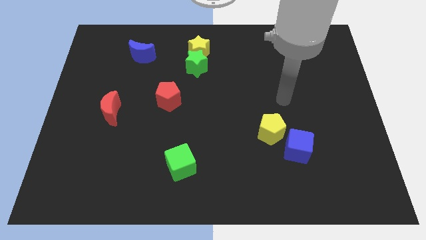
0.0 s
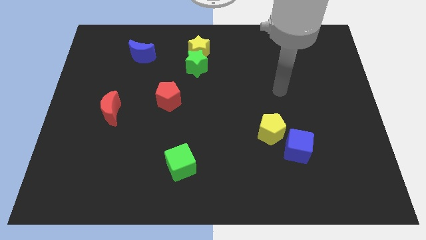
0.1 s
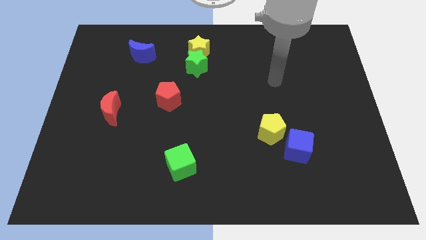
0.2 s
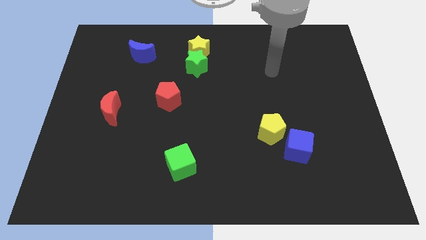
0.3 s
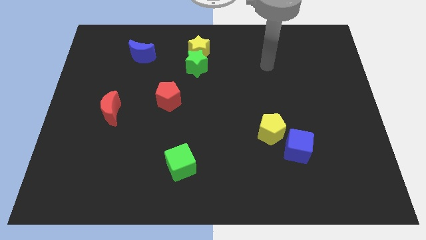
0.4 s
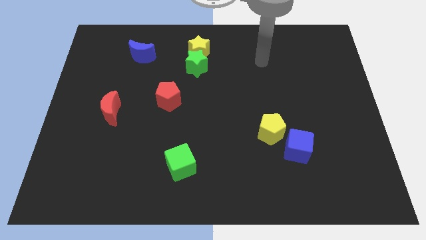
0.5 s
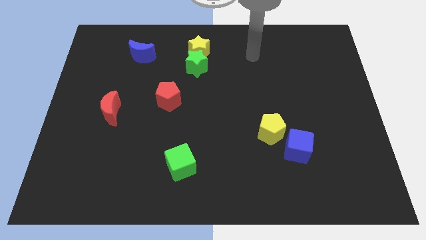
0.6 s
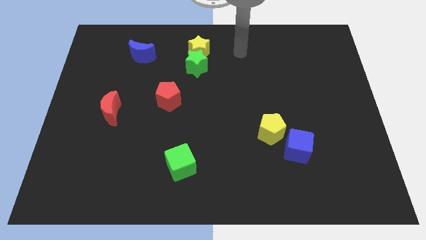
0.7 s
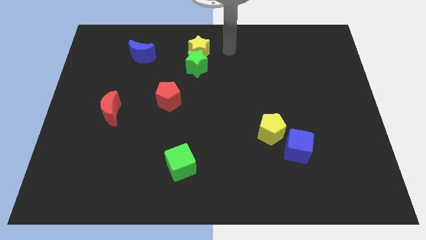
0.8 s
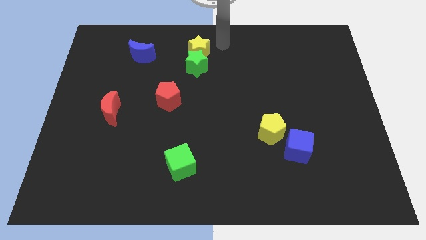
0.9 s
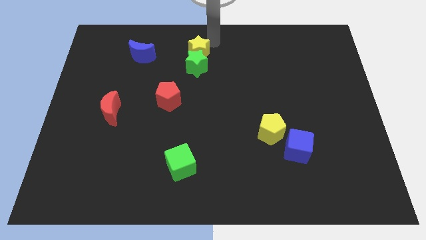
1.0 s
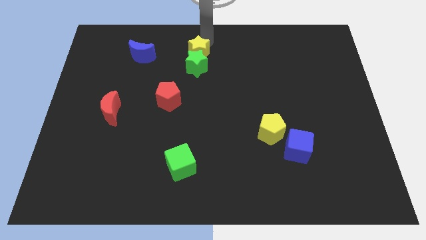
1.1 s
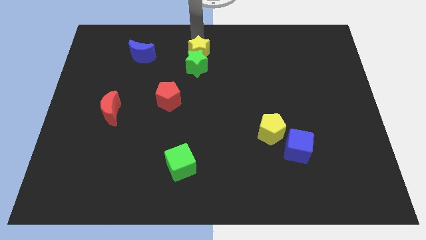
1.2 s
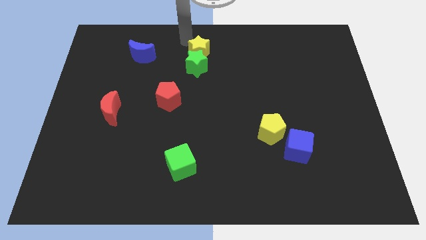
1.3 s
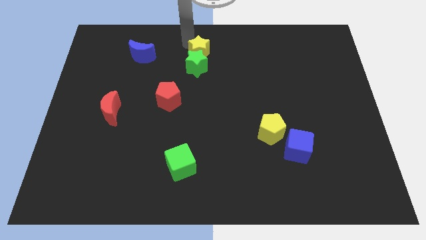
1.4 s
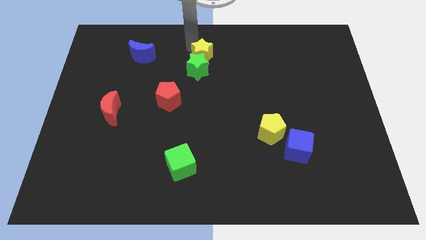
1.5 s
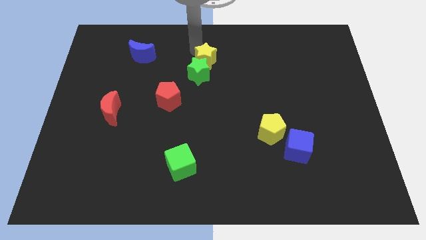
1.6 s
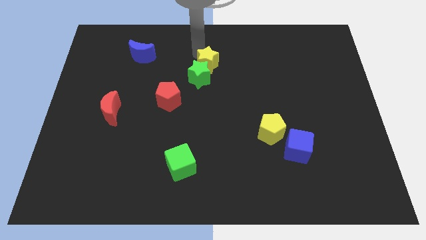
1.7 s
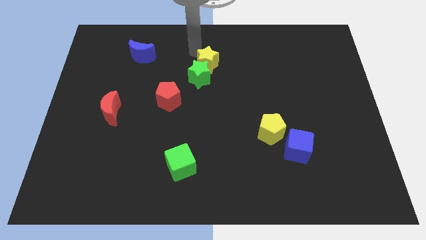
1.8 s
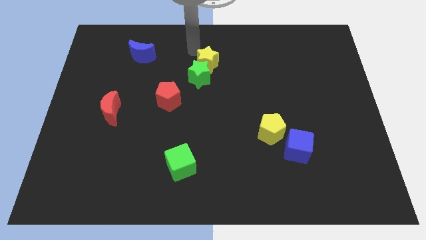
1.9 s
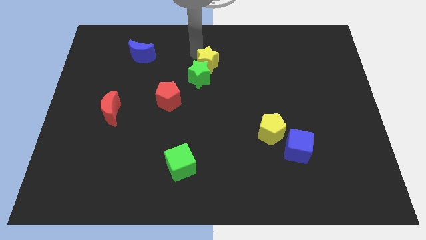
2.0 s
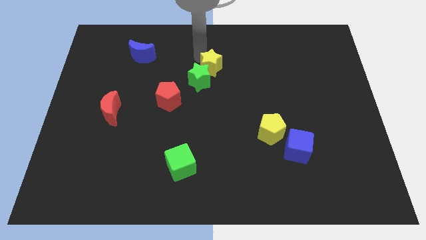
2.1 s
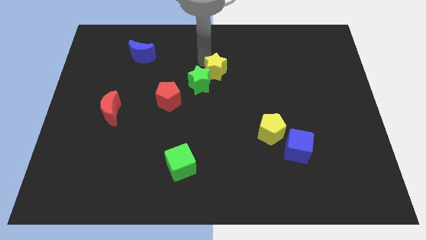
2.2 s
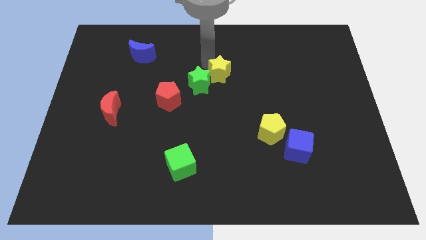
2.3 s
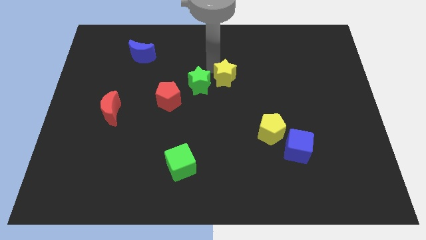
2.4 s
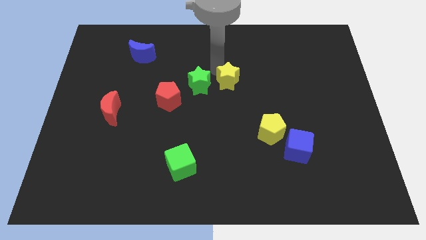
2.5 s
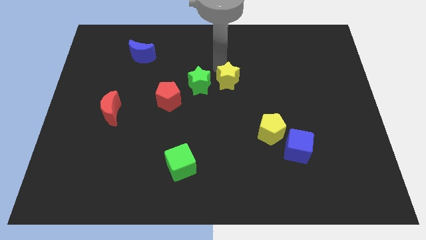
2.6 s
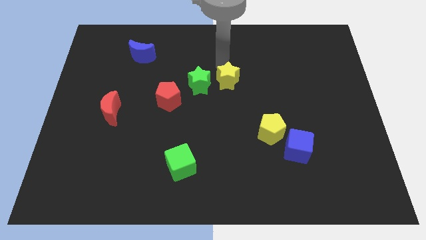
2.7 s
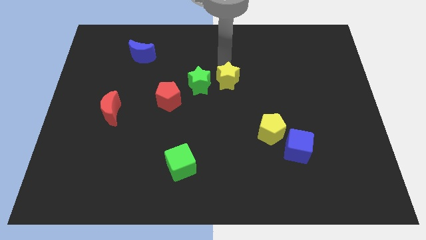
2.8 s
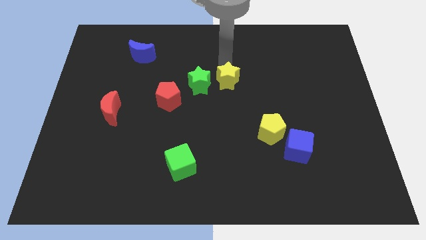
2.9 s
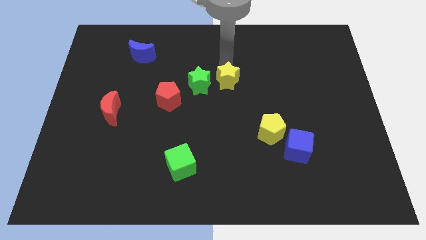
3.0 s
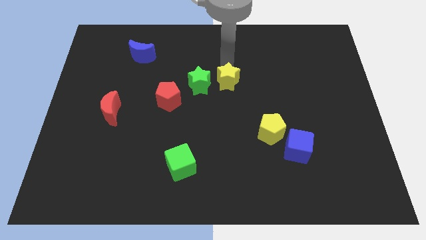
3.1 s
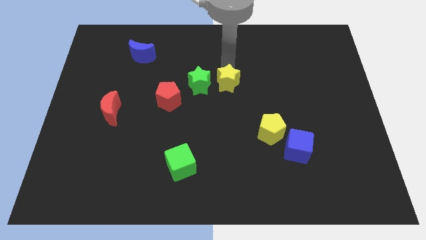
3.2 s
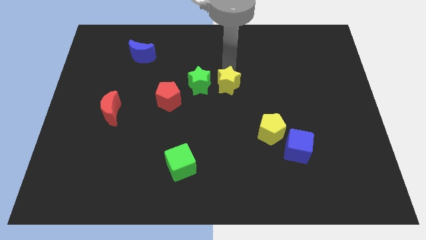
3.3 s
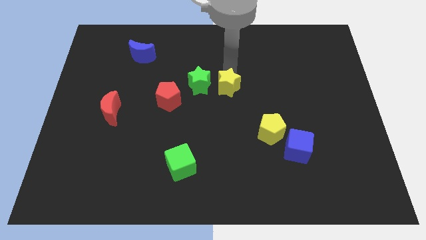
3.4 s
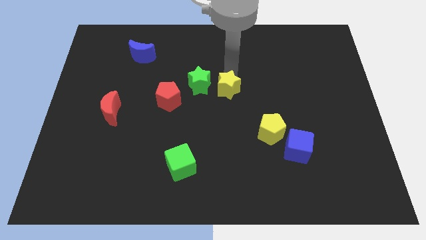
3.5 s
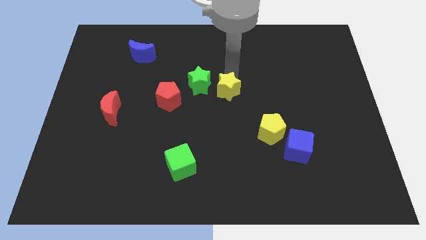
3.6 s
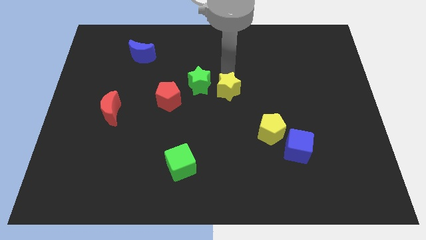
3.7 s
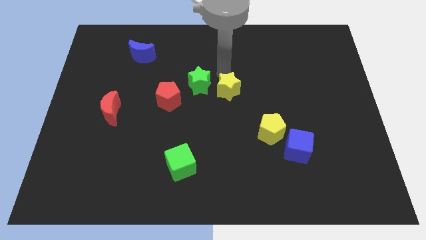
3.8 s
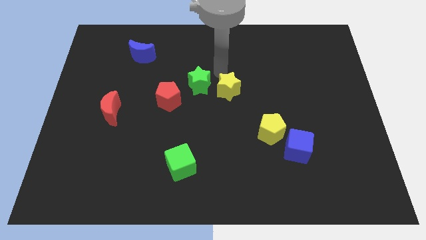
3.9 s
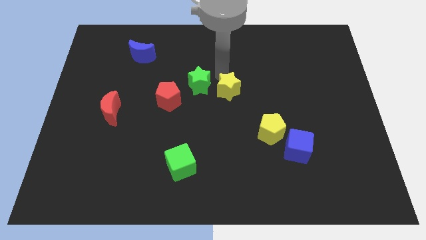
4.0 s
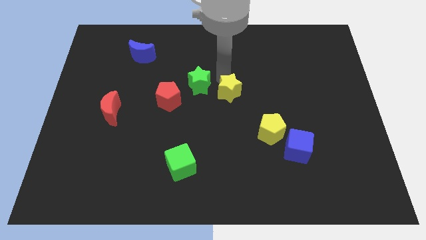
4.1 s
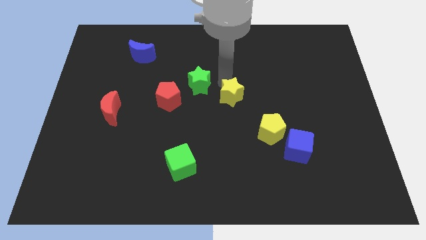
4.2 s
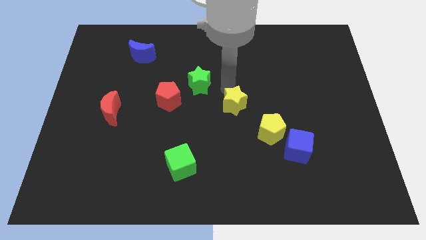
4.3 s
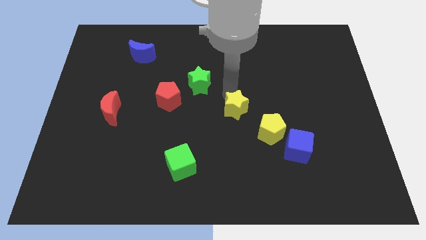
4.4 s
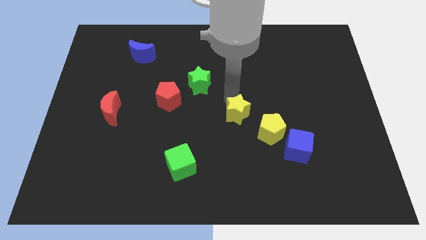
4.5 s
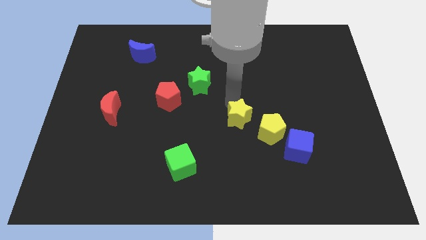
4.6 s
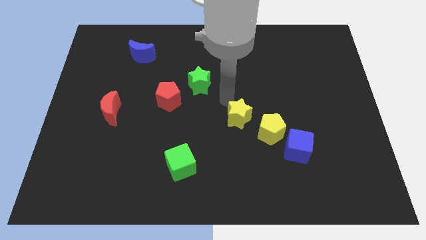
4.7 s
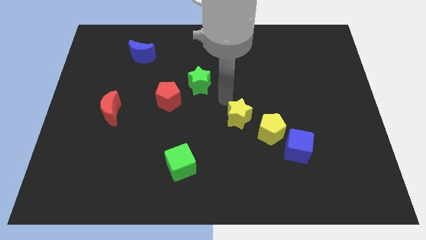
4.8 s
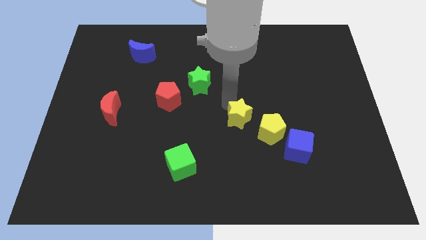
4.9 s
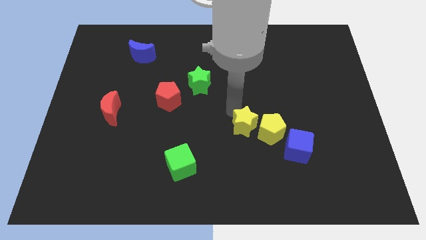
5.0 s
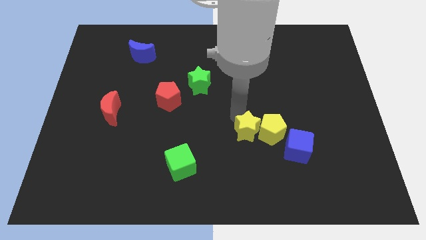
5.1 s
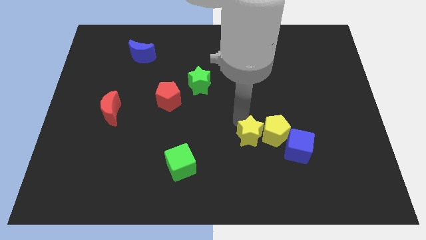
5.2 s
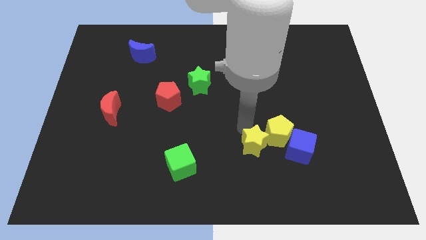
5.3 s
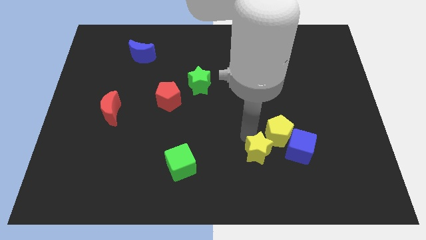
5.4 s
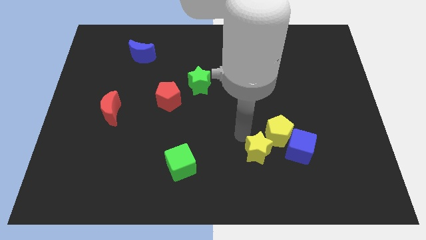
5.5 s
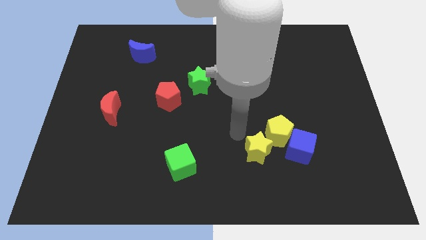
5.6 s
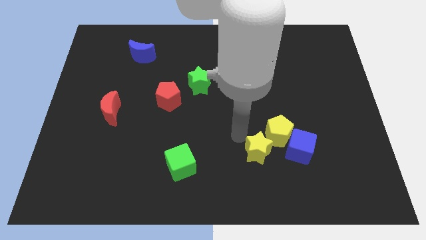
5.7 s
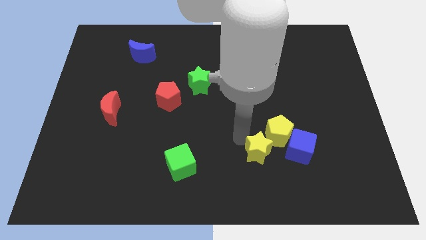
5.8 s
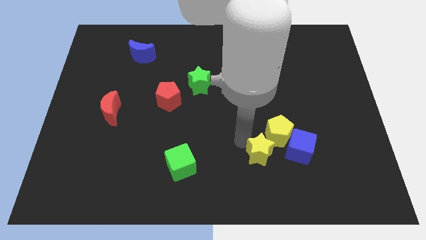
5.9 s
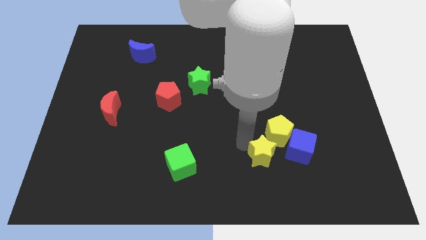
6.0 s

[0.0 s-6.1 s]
slide the yellow star to the bottom left of the blue cube
